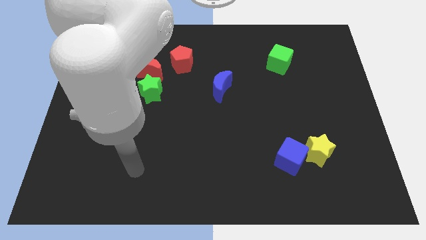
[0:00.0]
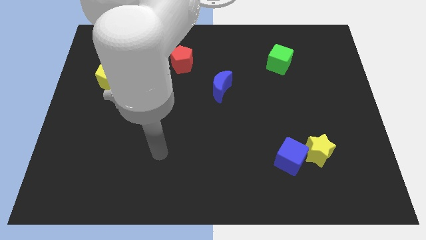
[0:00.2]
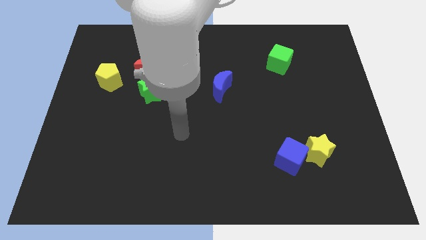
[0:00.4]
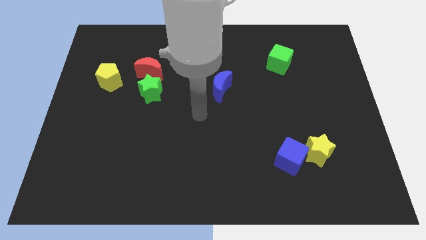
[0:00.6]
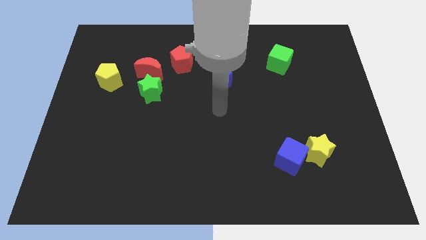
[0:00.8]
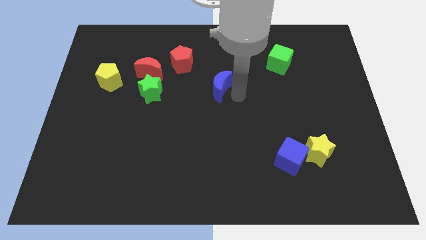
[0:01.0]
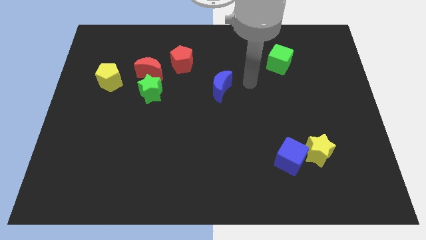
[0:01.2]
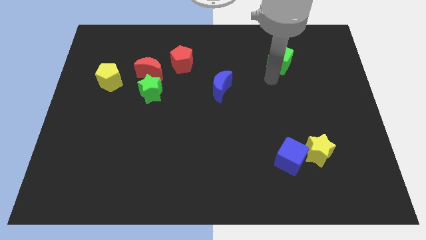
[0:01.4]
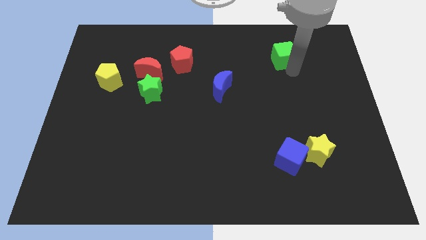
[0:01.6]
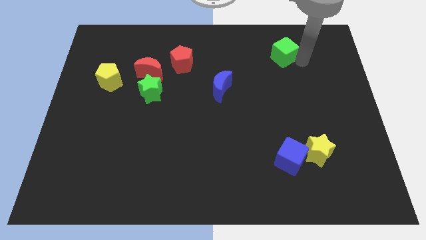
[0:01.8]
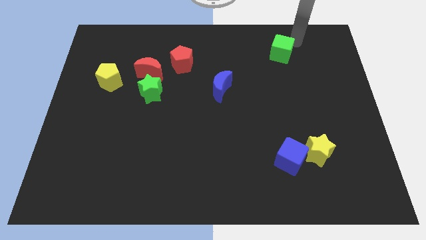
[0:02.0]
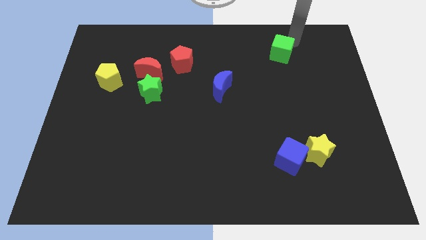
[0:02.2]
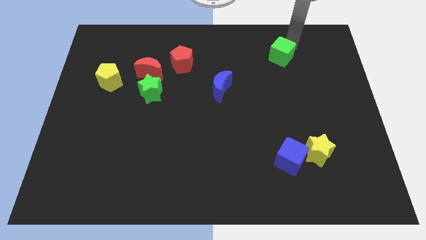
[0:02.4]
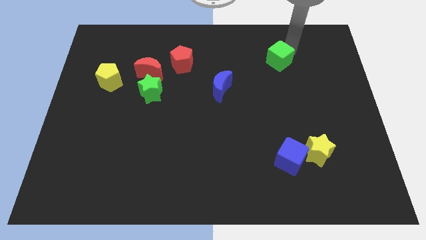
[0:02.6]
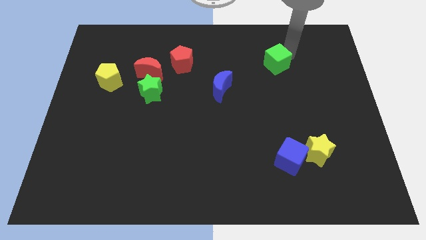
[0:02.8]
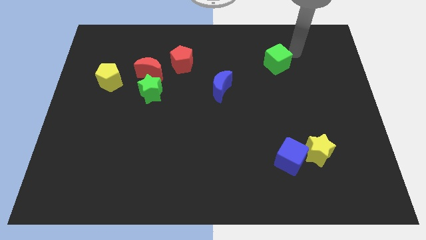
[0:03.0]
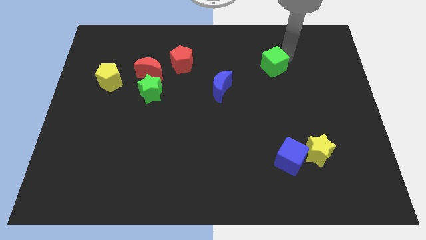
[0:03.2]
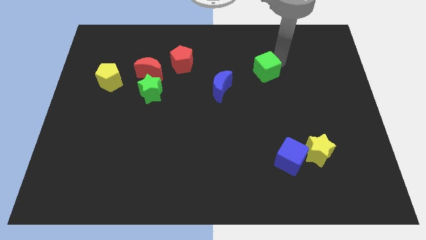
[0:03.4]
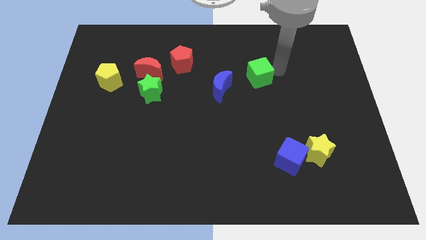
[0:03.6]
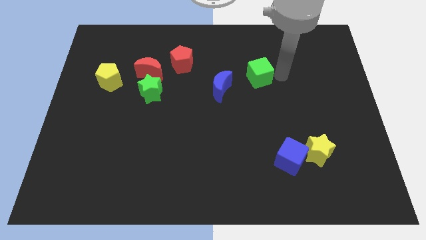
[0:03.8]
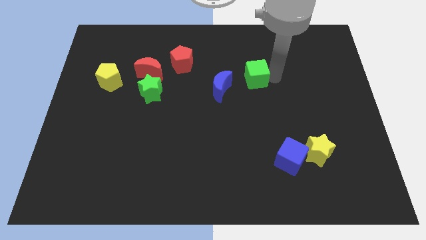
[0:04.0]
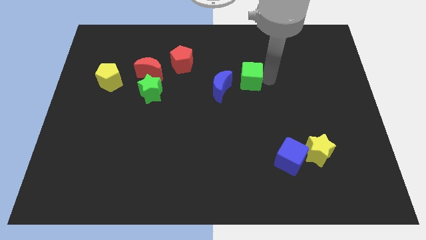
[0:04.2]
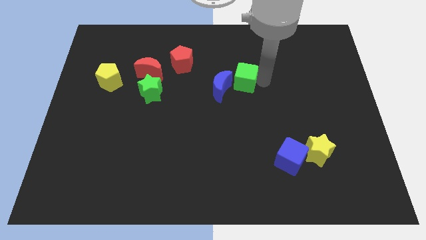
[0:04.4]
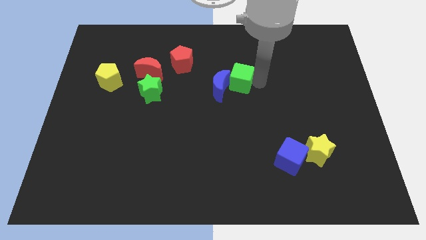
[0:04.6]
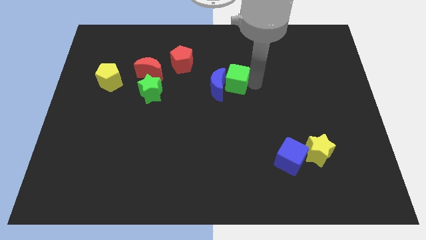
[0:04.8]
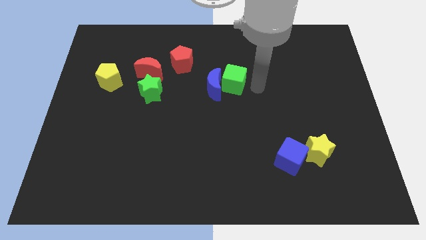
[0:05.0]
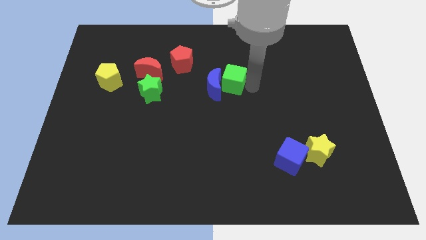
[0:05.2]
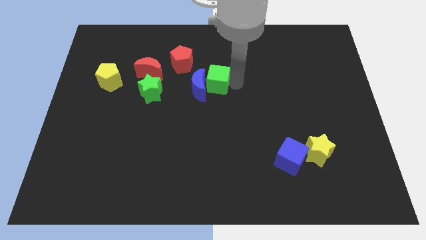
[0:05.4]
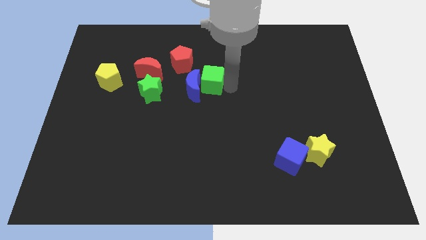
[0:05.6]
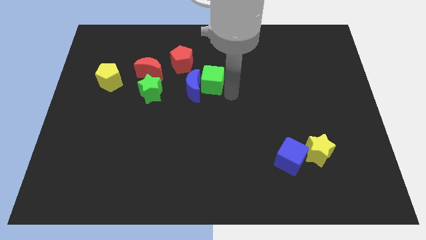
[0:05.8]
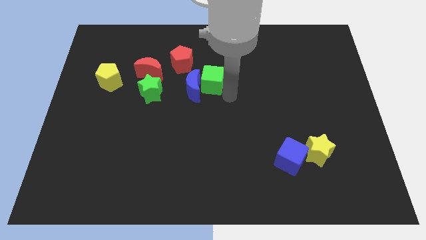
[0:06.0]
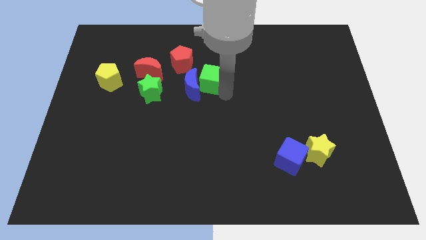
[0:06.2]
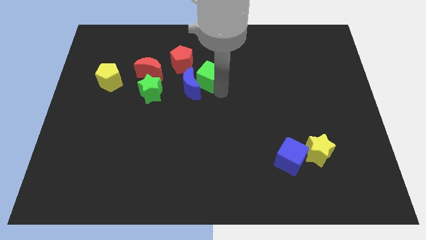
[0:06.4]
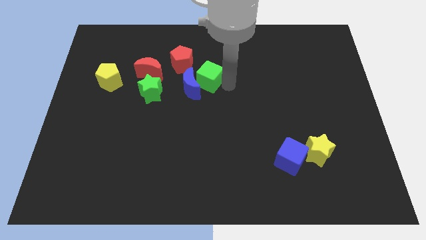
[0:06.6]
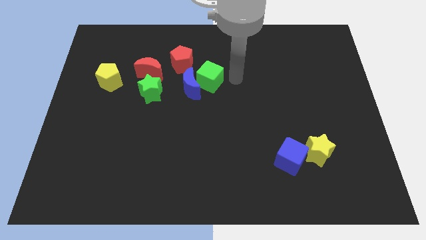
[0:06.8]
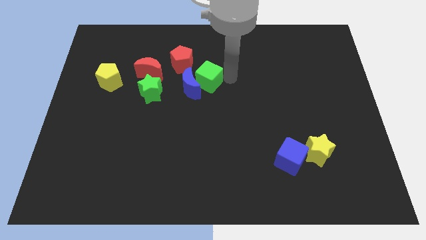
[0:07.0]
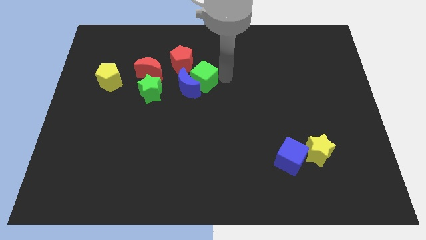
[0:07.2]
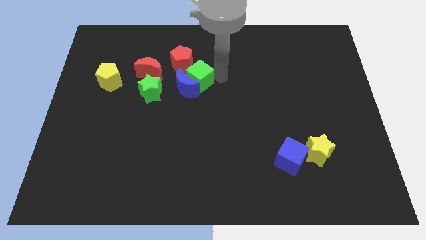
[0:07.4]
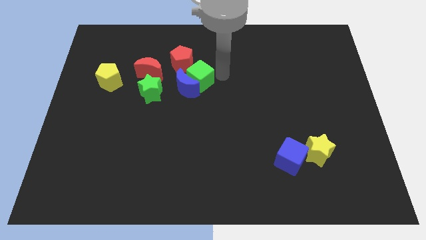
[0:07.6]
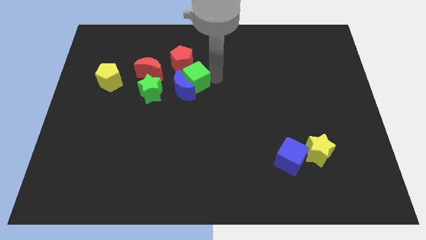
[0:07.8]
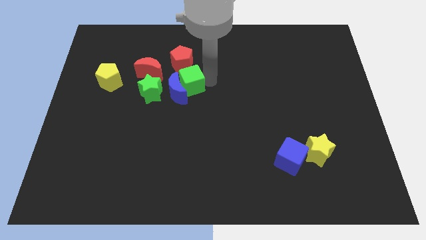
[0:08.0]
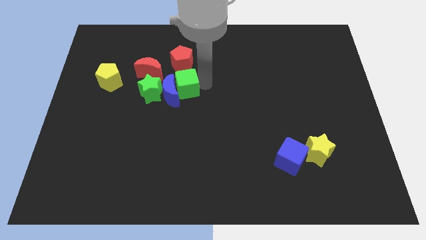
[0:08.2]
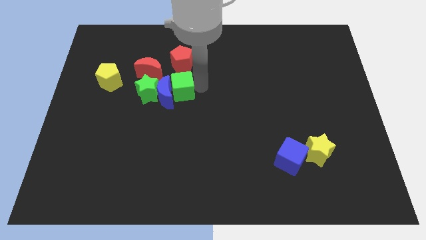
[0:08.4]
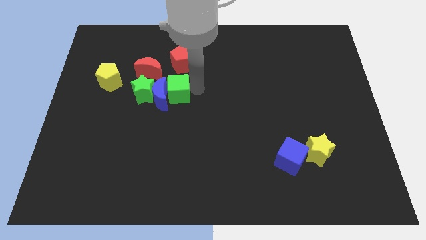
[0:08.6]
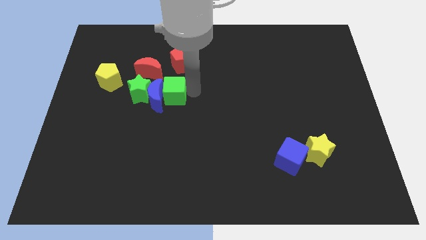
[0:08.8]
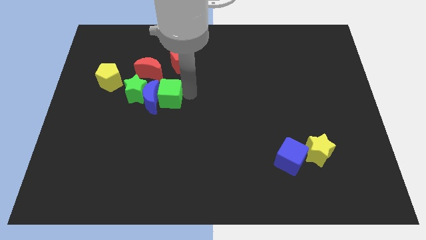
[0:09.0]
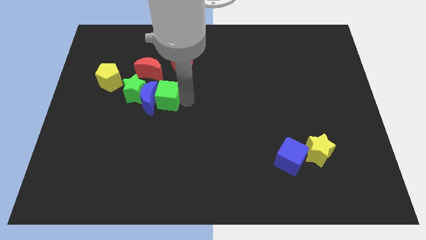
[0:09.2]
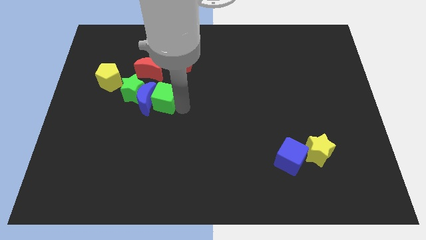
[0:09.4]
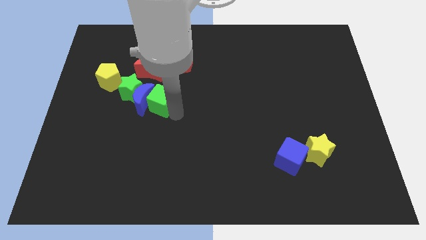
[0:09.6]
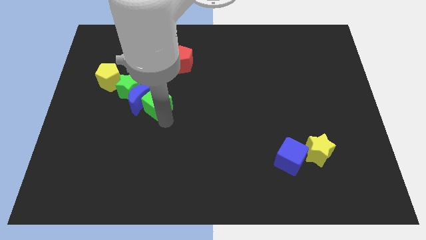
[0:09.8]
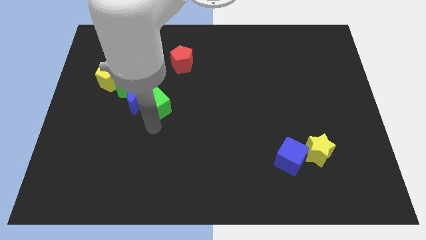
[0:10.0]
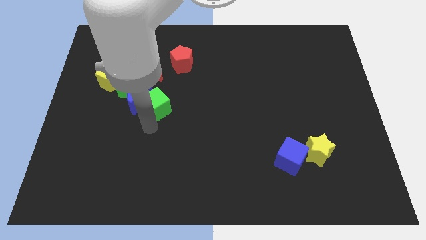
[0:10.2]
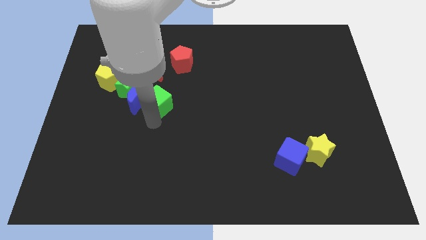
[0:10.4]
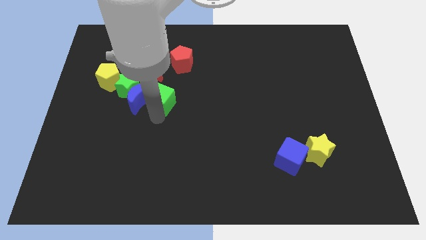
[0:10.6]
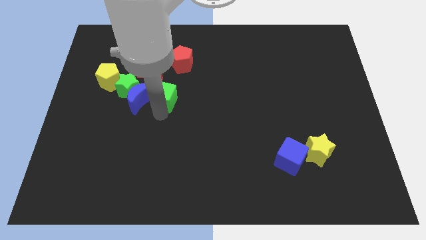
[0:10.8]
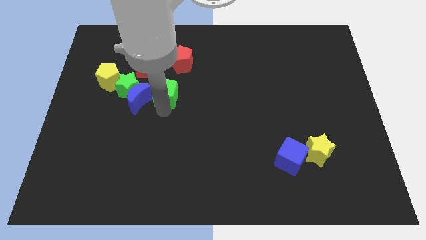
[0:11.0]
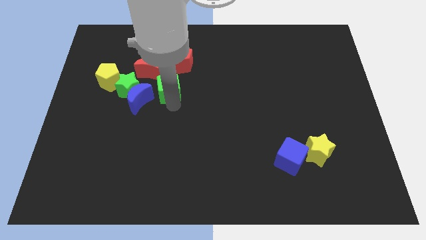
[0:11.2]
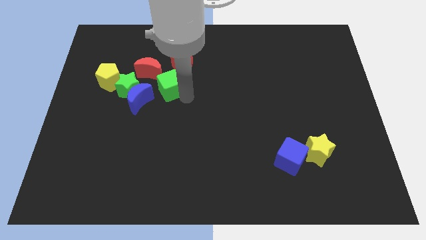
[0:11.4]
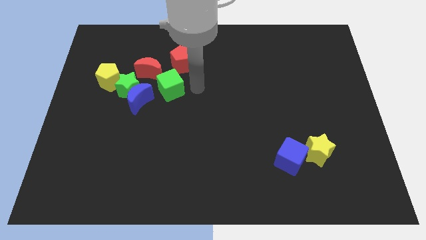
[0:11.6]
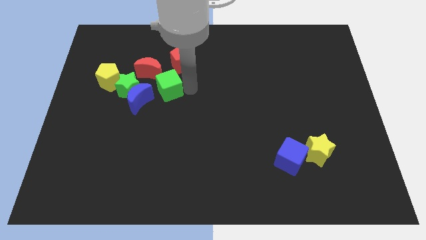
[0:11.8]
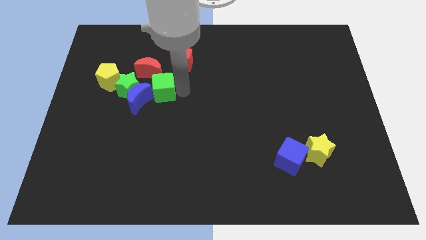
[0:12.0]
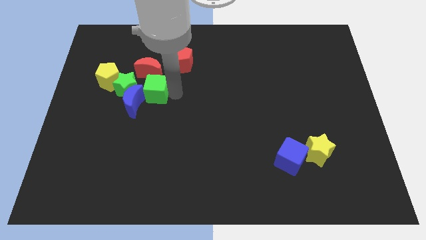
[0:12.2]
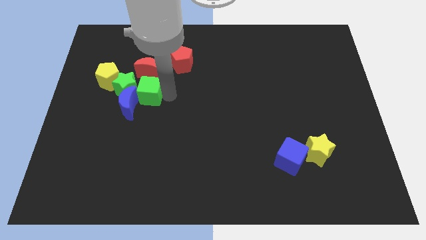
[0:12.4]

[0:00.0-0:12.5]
put the green cube towards the green star

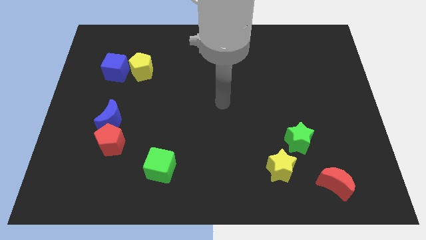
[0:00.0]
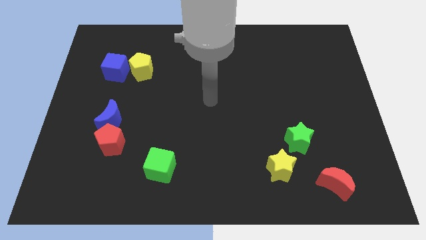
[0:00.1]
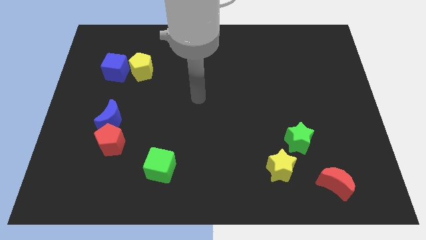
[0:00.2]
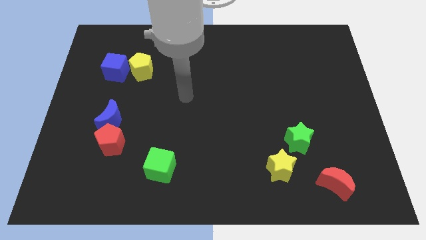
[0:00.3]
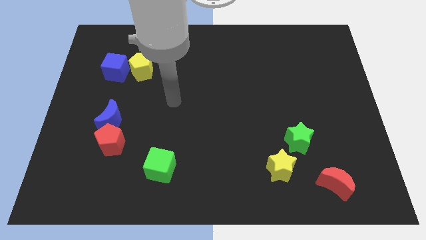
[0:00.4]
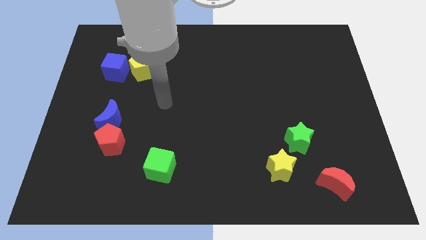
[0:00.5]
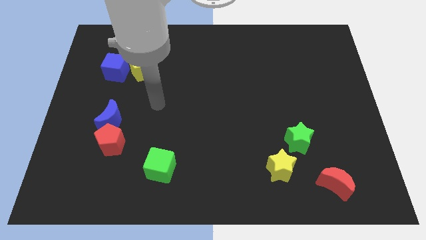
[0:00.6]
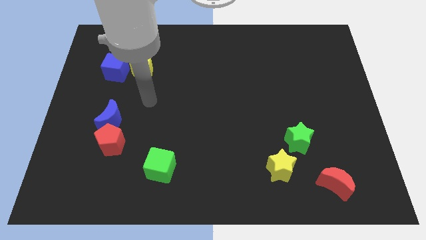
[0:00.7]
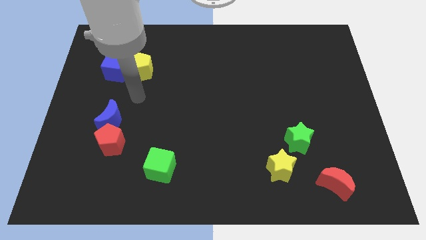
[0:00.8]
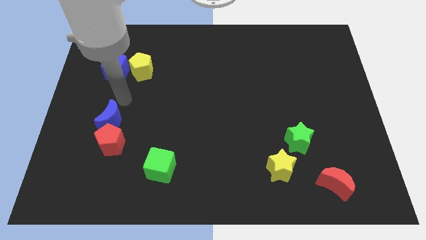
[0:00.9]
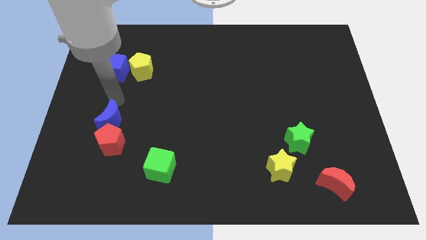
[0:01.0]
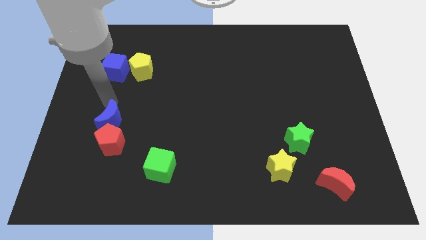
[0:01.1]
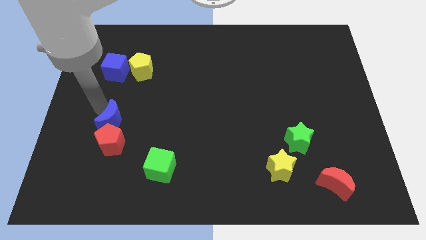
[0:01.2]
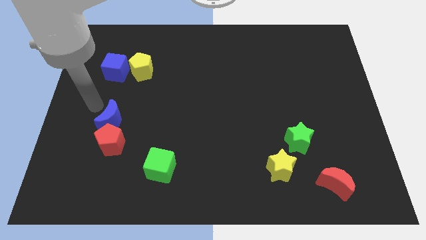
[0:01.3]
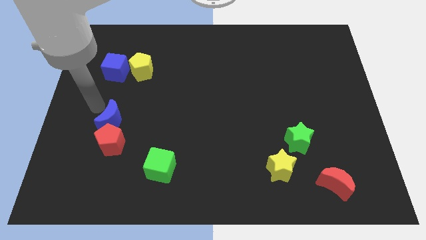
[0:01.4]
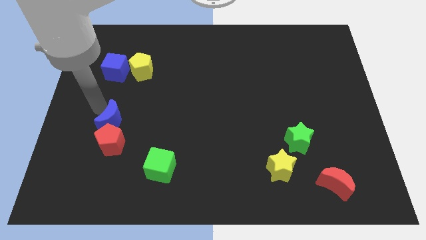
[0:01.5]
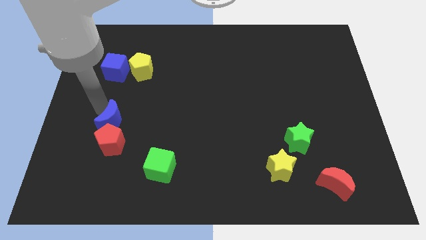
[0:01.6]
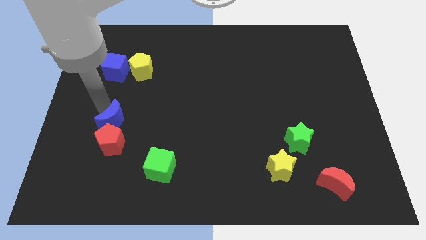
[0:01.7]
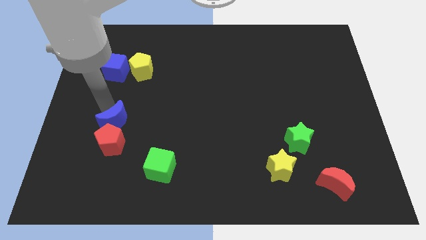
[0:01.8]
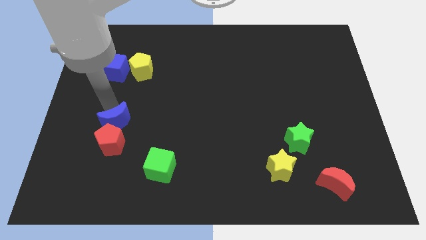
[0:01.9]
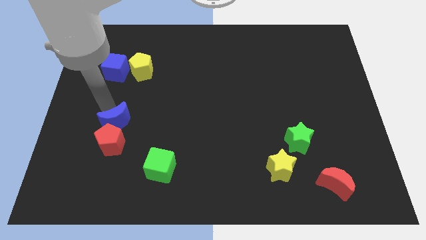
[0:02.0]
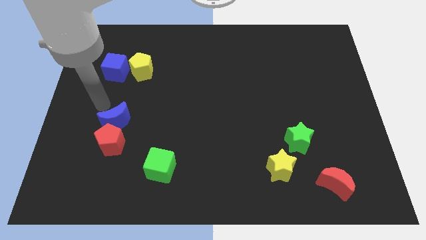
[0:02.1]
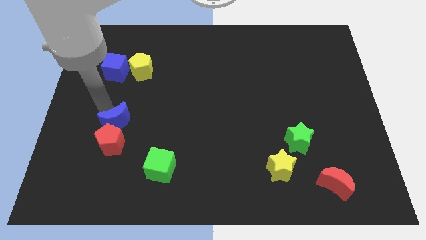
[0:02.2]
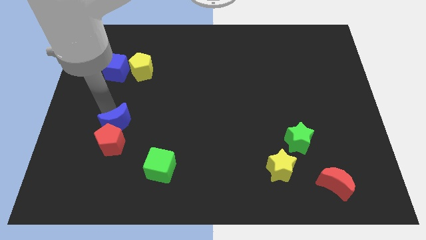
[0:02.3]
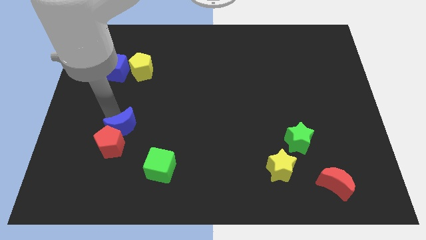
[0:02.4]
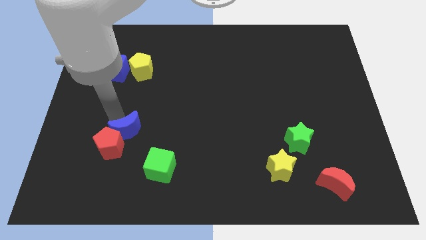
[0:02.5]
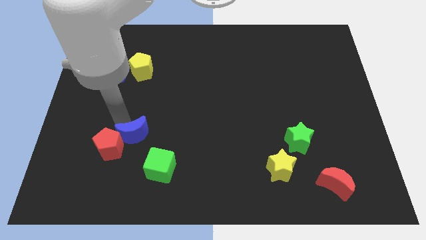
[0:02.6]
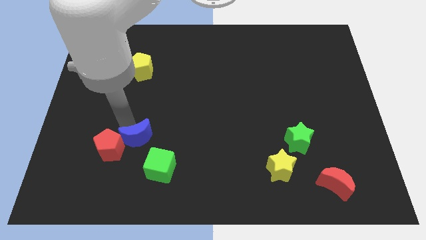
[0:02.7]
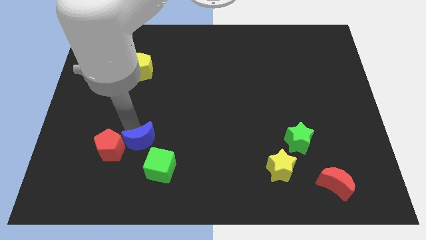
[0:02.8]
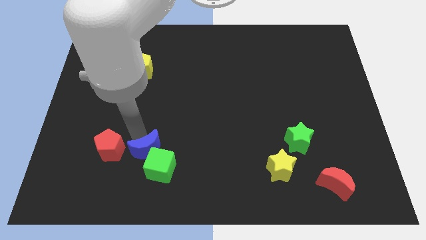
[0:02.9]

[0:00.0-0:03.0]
put the blue moon next to the green cube
